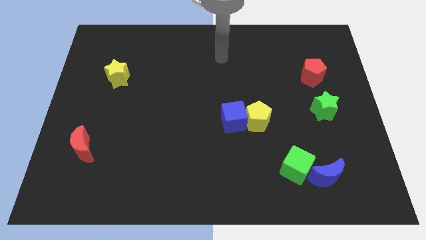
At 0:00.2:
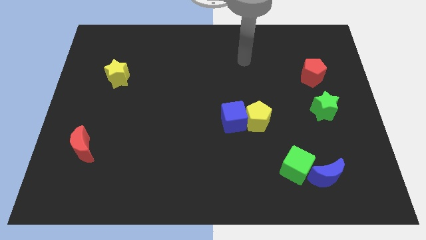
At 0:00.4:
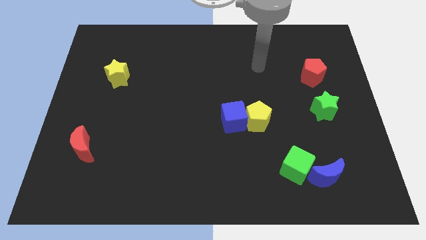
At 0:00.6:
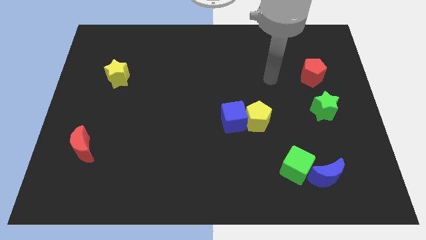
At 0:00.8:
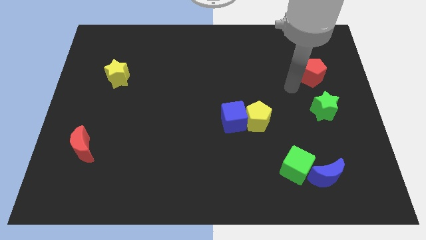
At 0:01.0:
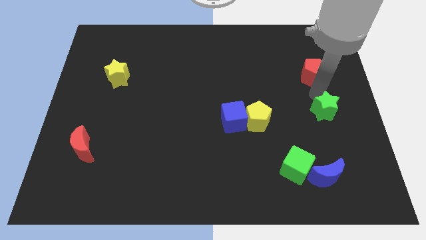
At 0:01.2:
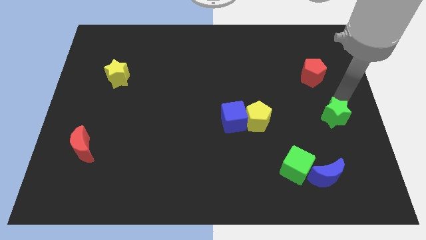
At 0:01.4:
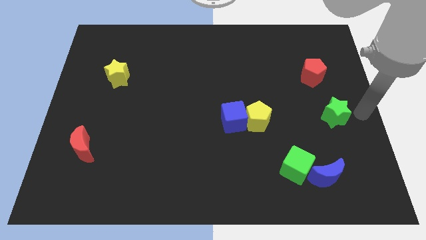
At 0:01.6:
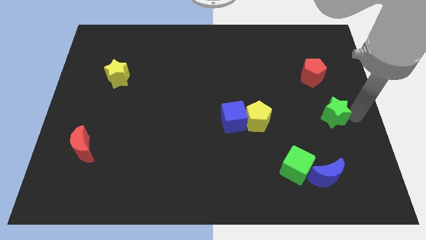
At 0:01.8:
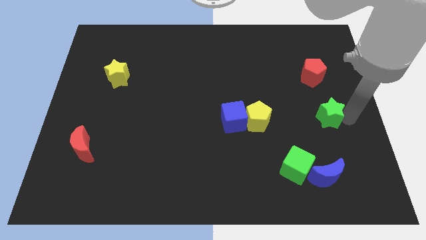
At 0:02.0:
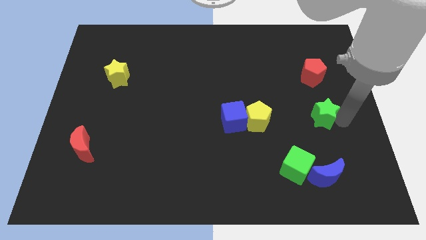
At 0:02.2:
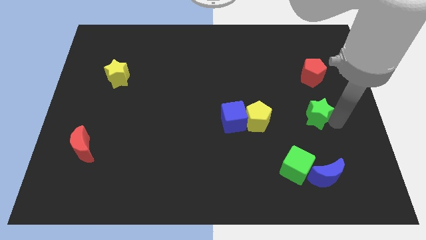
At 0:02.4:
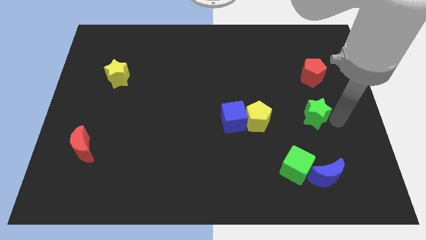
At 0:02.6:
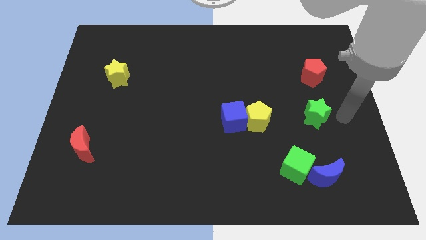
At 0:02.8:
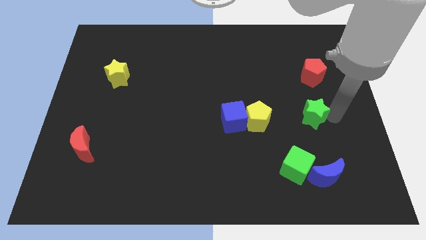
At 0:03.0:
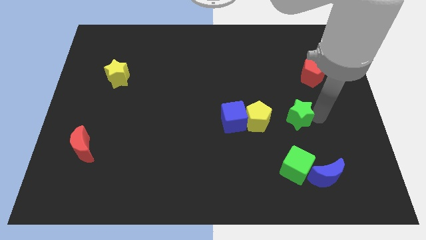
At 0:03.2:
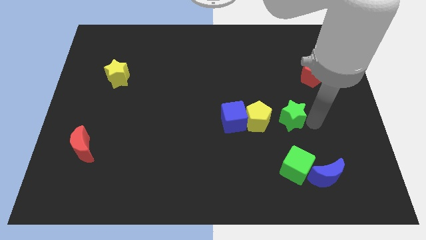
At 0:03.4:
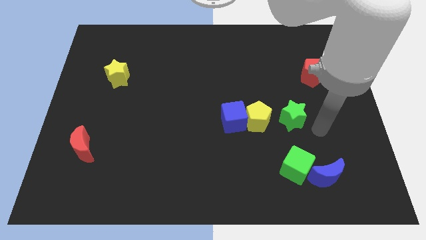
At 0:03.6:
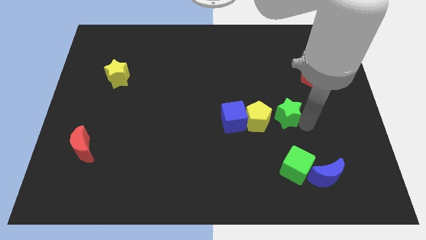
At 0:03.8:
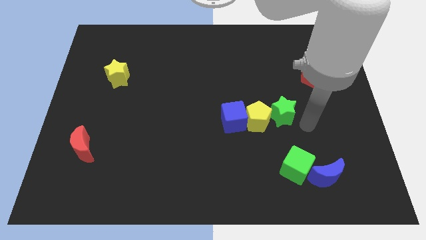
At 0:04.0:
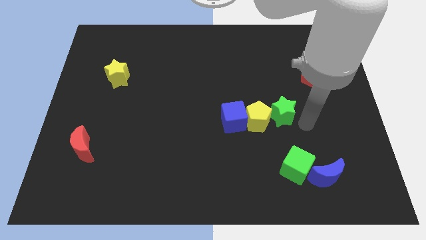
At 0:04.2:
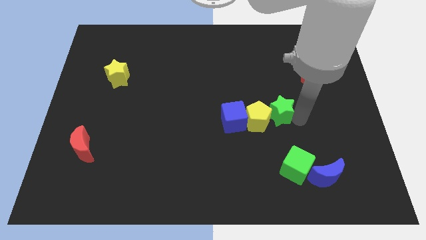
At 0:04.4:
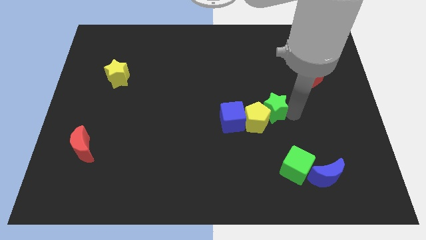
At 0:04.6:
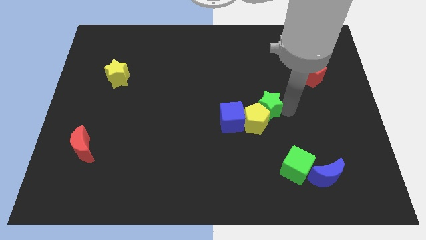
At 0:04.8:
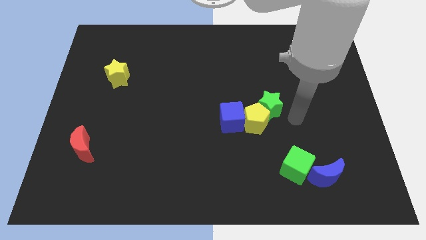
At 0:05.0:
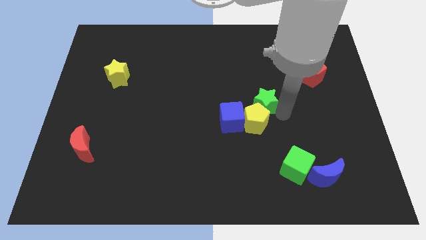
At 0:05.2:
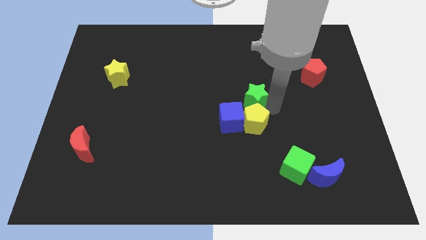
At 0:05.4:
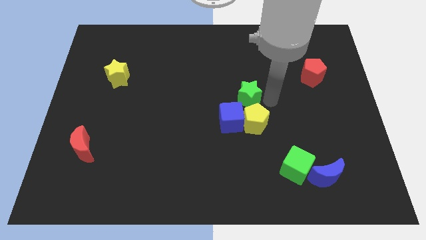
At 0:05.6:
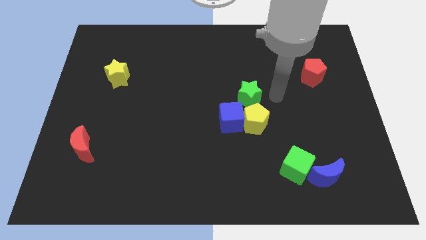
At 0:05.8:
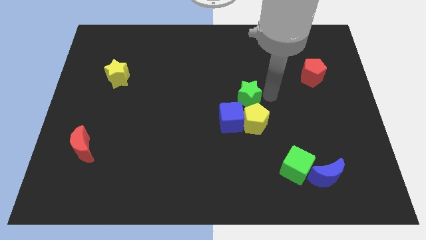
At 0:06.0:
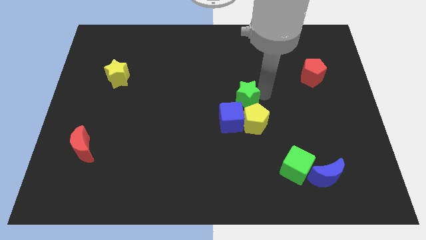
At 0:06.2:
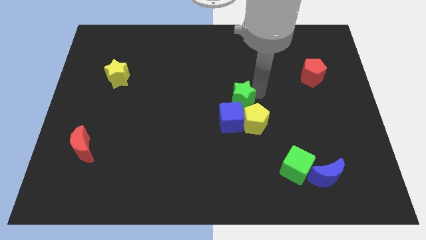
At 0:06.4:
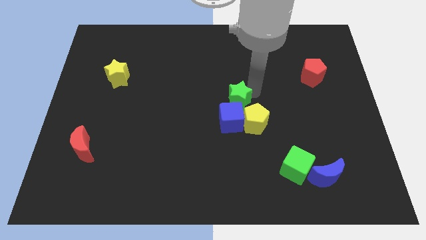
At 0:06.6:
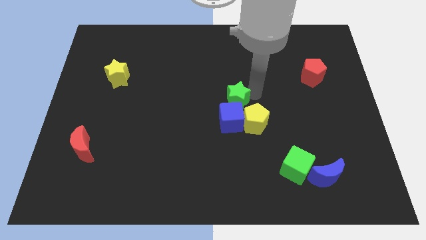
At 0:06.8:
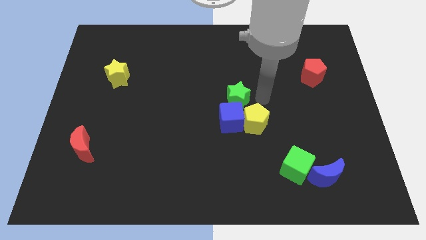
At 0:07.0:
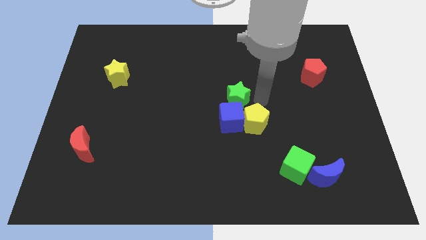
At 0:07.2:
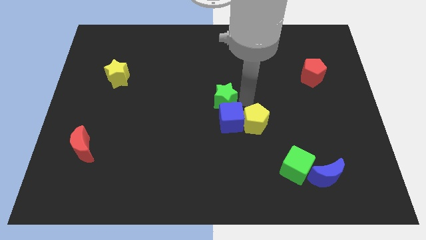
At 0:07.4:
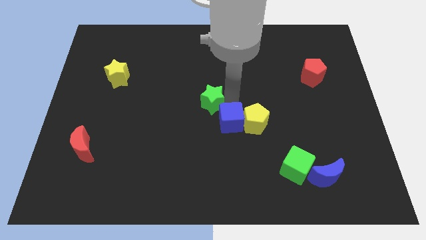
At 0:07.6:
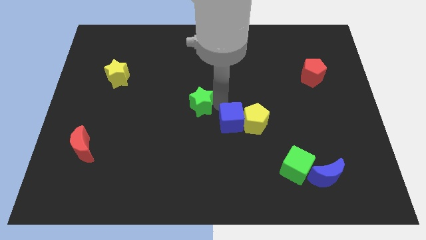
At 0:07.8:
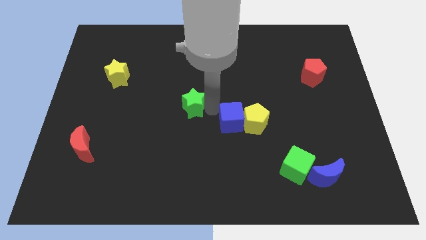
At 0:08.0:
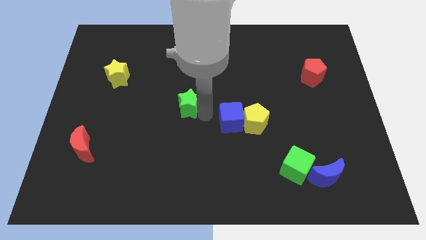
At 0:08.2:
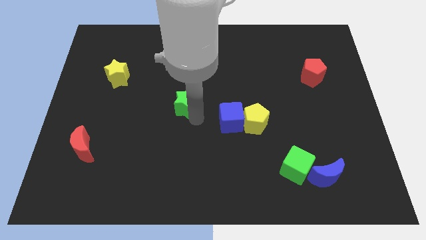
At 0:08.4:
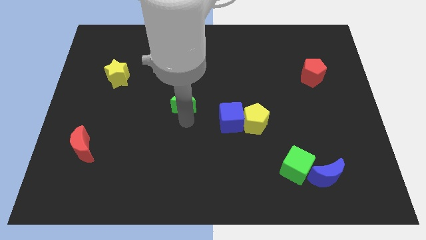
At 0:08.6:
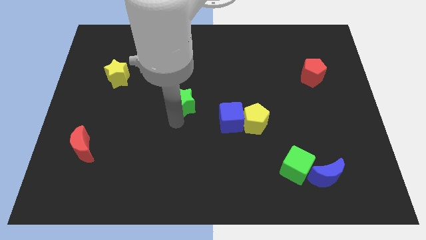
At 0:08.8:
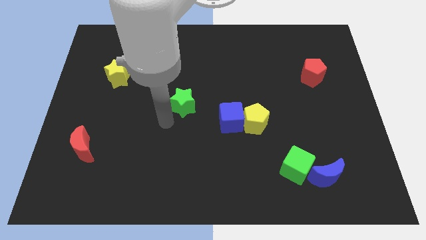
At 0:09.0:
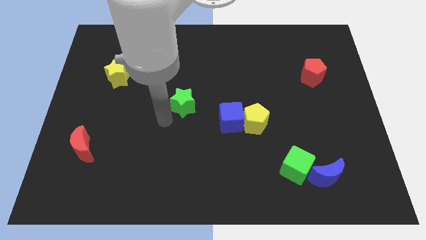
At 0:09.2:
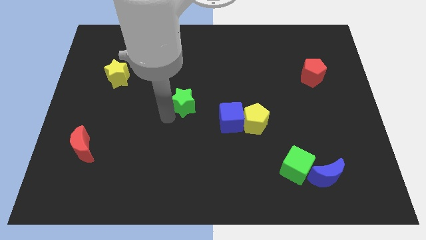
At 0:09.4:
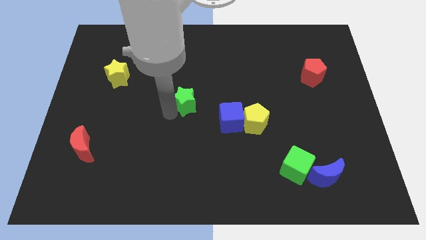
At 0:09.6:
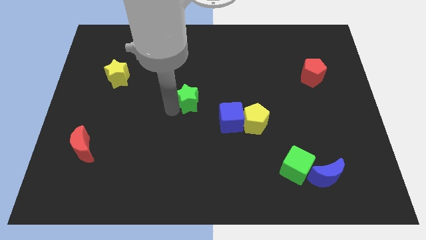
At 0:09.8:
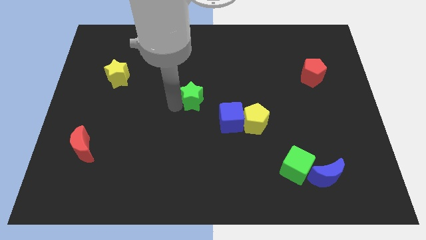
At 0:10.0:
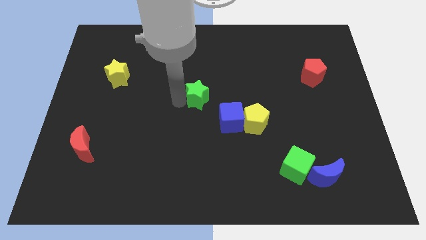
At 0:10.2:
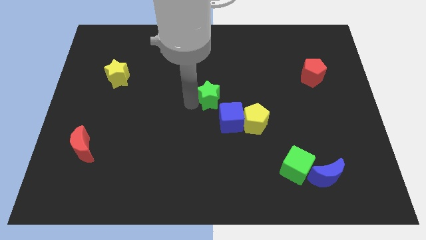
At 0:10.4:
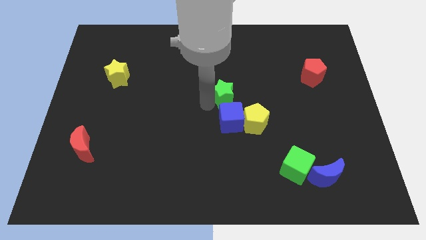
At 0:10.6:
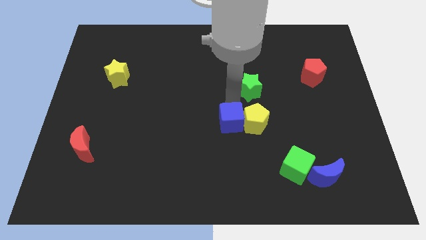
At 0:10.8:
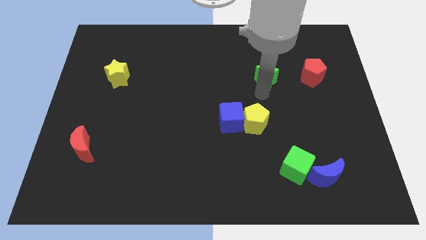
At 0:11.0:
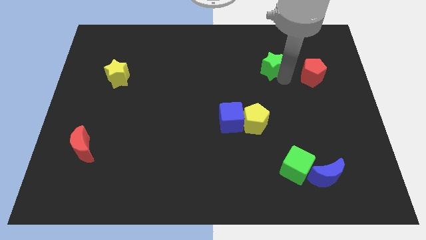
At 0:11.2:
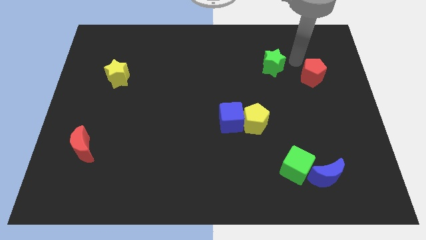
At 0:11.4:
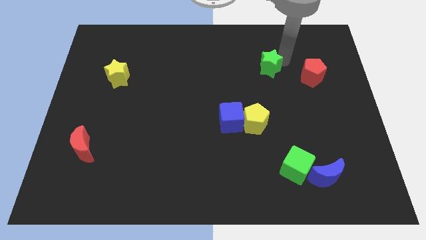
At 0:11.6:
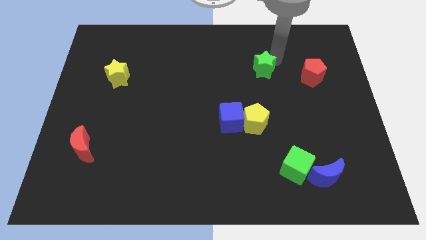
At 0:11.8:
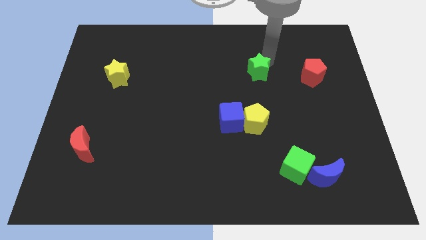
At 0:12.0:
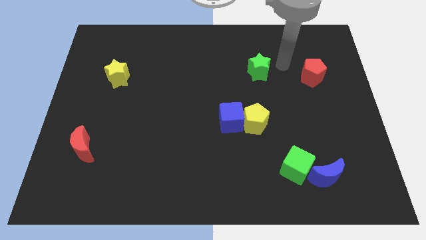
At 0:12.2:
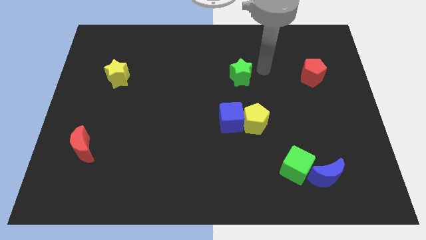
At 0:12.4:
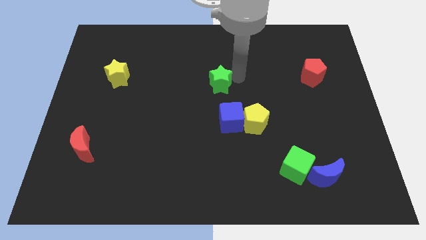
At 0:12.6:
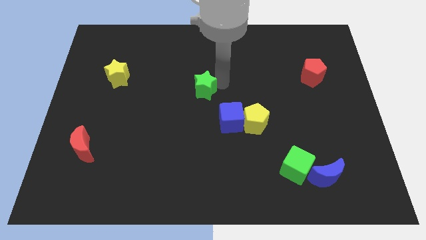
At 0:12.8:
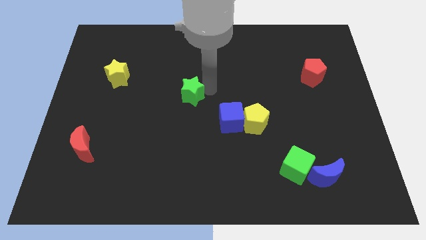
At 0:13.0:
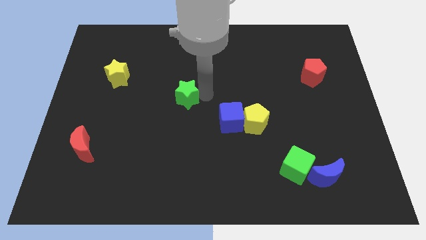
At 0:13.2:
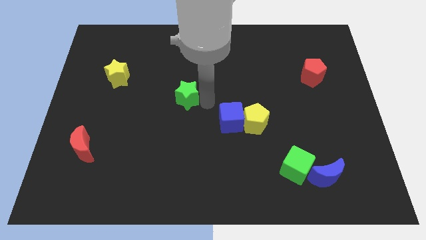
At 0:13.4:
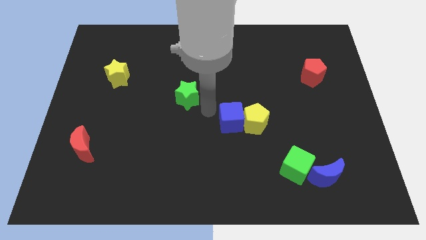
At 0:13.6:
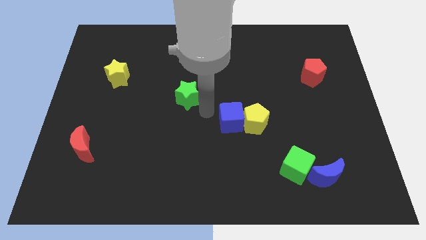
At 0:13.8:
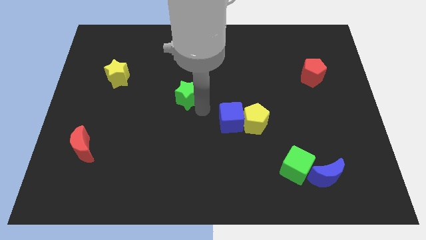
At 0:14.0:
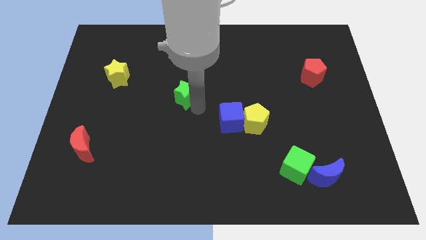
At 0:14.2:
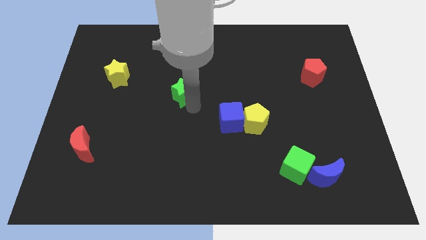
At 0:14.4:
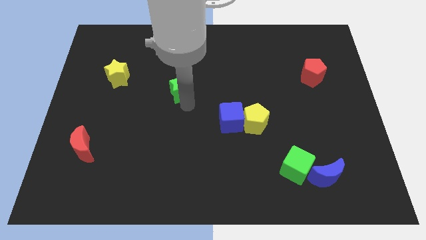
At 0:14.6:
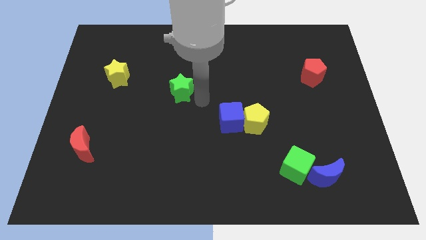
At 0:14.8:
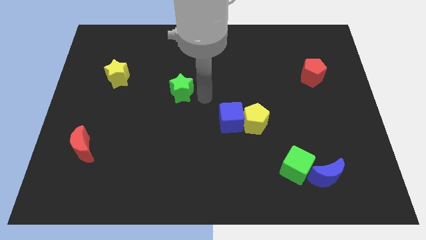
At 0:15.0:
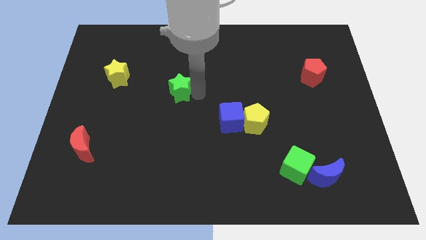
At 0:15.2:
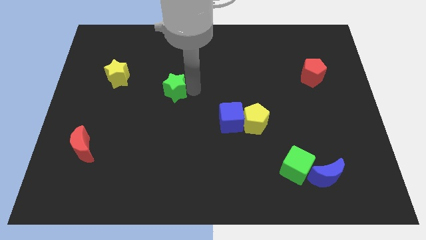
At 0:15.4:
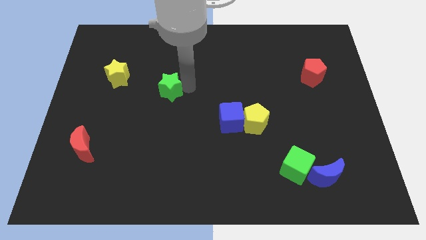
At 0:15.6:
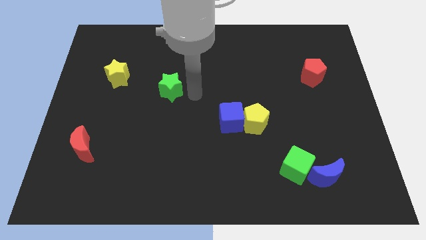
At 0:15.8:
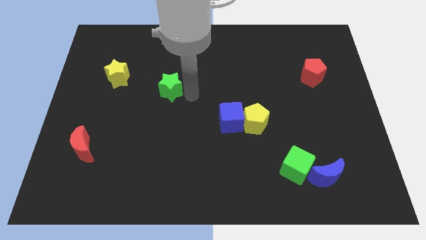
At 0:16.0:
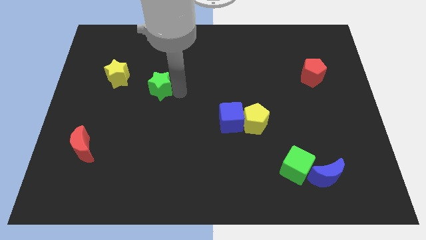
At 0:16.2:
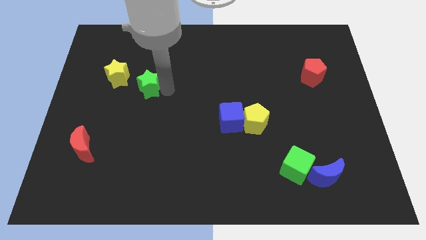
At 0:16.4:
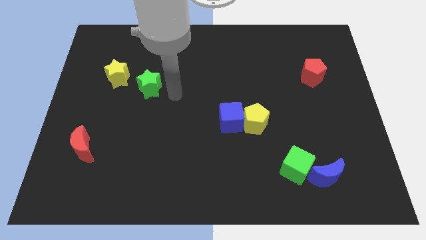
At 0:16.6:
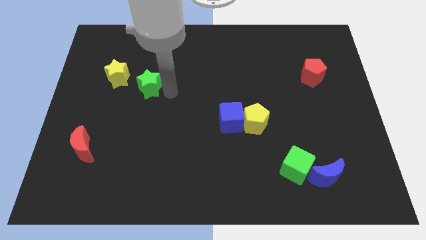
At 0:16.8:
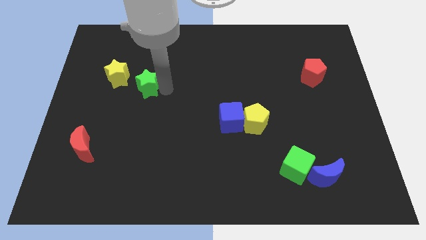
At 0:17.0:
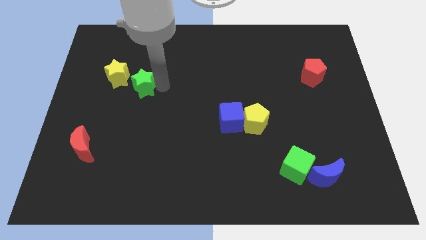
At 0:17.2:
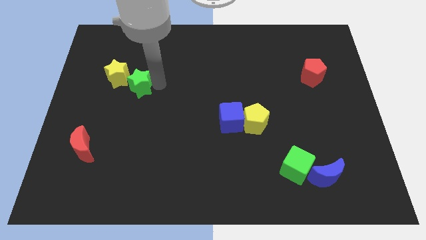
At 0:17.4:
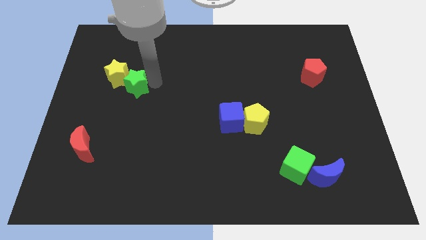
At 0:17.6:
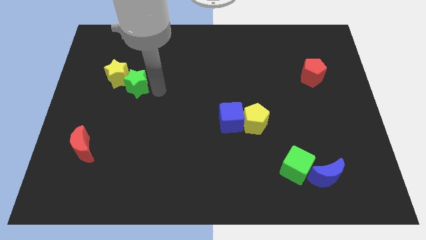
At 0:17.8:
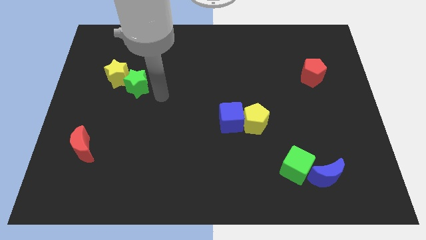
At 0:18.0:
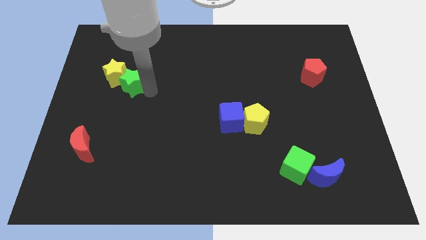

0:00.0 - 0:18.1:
put the green star to the yellow star
